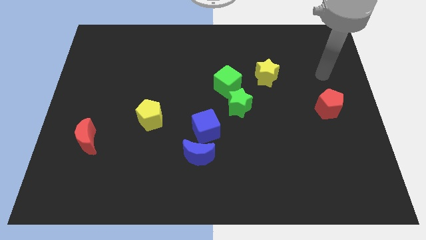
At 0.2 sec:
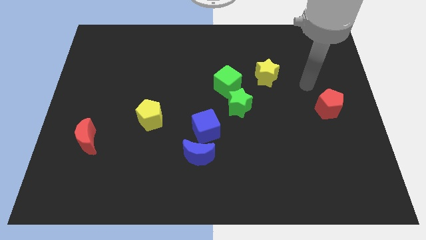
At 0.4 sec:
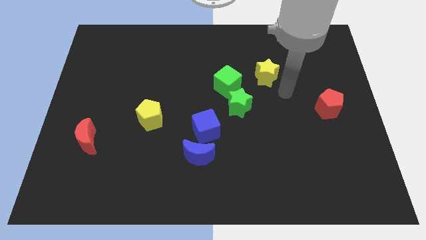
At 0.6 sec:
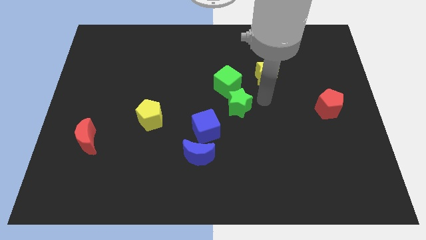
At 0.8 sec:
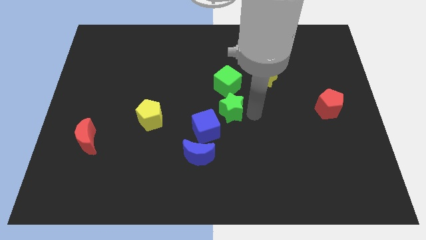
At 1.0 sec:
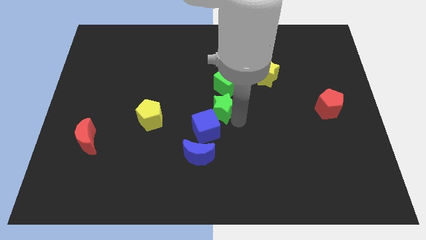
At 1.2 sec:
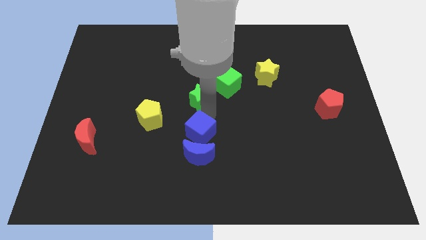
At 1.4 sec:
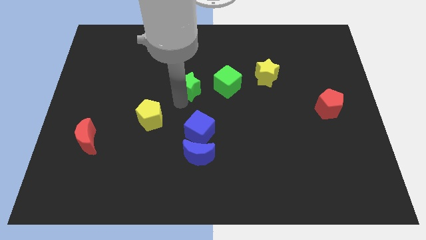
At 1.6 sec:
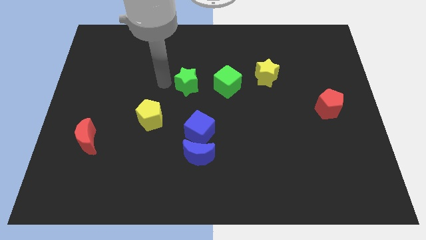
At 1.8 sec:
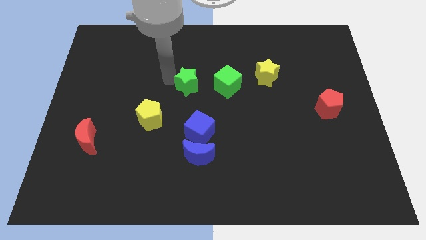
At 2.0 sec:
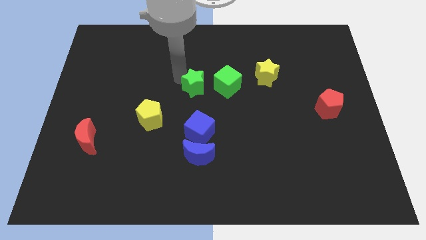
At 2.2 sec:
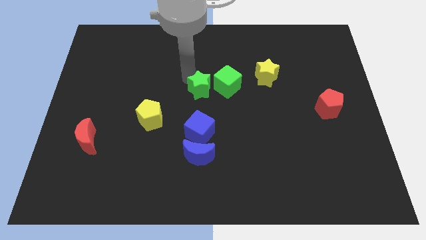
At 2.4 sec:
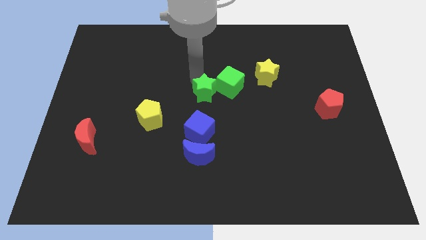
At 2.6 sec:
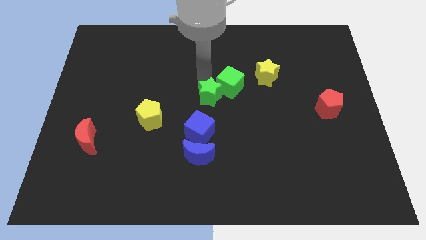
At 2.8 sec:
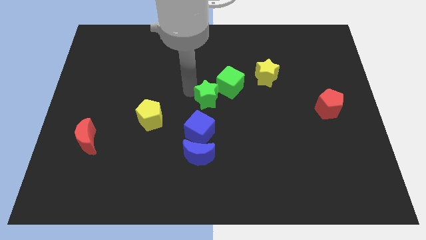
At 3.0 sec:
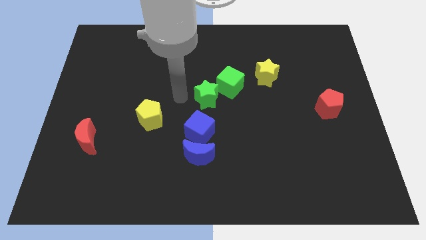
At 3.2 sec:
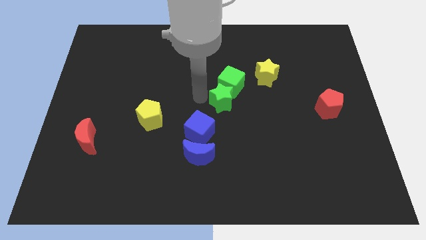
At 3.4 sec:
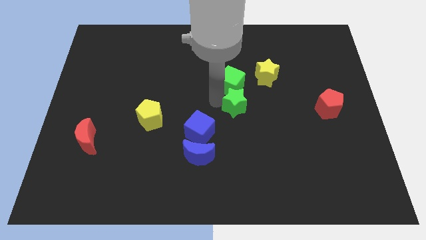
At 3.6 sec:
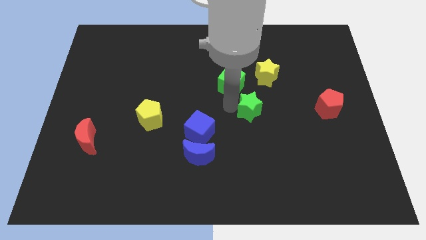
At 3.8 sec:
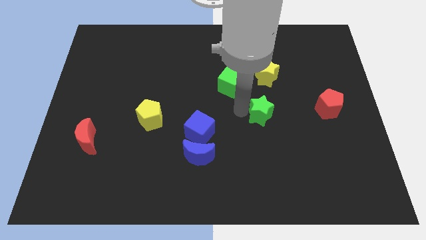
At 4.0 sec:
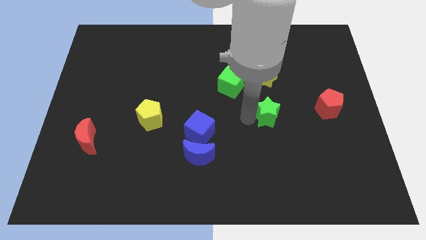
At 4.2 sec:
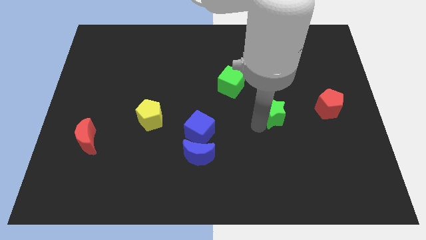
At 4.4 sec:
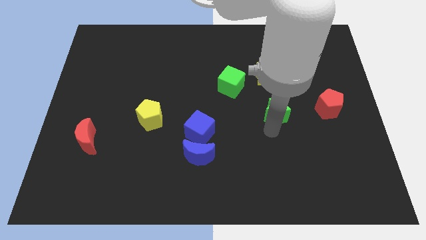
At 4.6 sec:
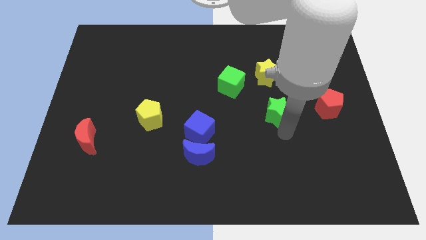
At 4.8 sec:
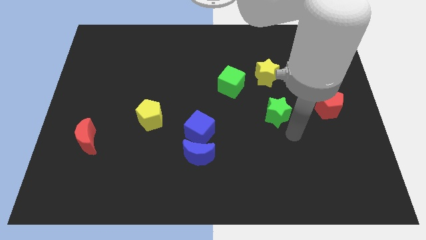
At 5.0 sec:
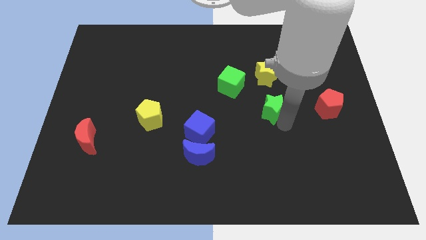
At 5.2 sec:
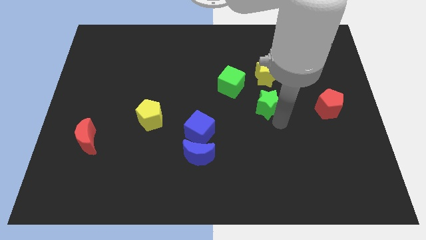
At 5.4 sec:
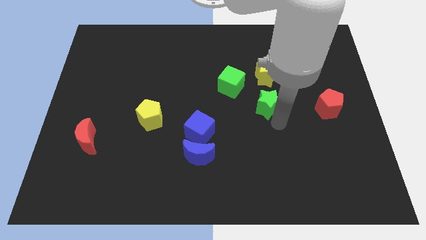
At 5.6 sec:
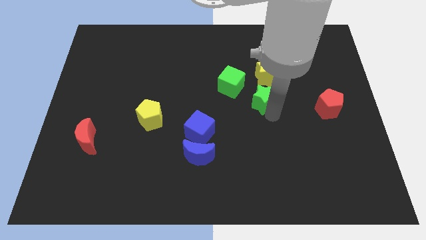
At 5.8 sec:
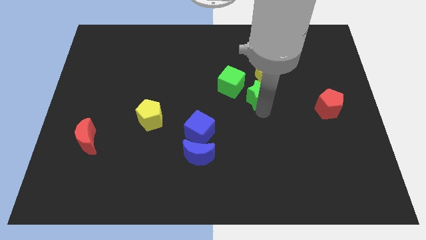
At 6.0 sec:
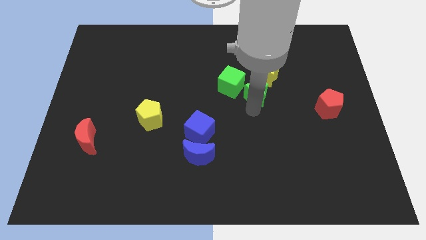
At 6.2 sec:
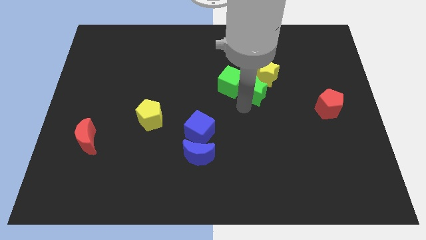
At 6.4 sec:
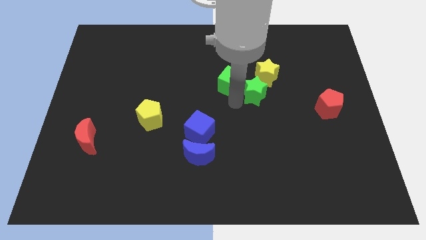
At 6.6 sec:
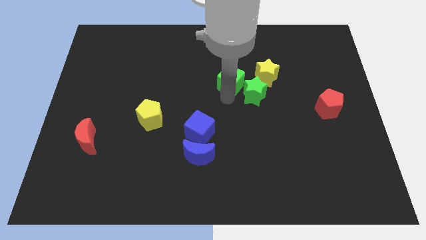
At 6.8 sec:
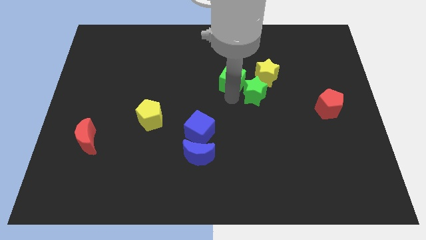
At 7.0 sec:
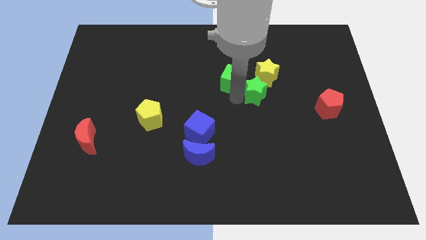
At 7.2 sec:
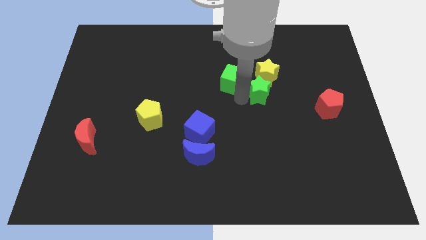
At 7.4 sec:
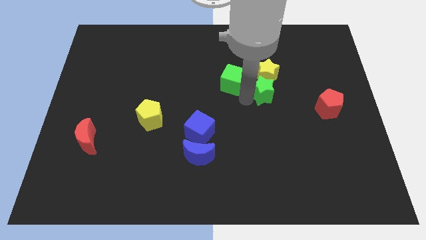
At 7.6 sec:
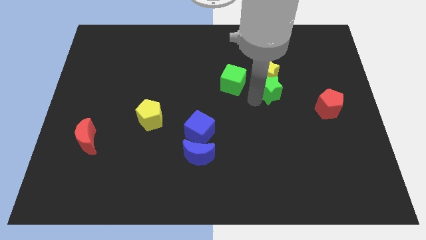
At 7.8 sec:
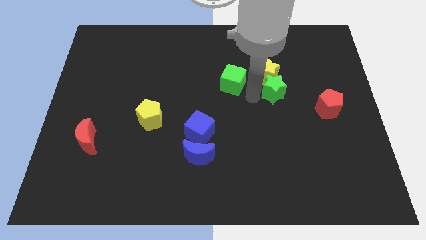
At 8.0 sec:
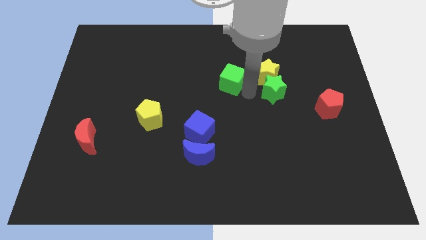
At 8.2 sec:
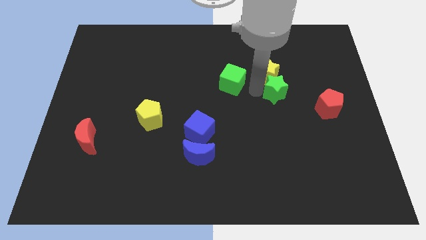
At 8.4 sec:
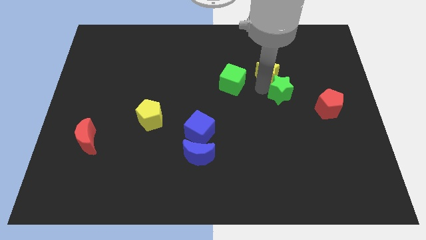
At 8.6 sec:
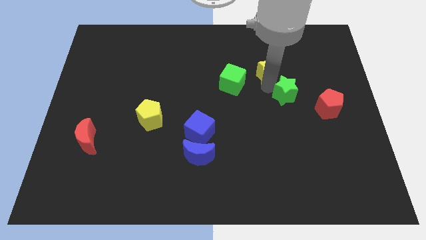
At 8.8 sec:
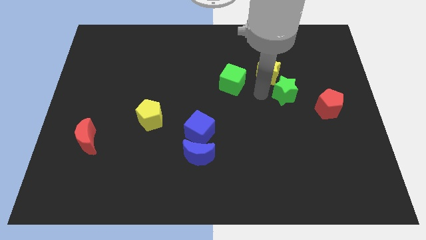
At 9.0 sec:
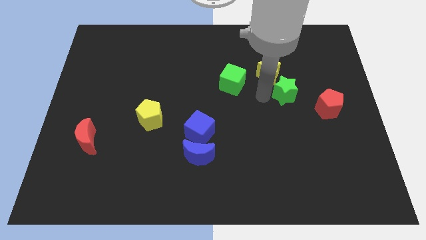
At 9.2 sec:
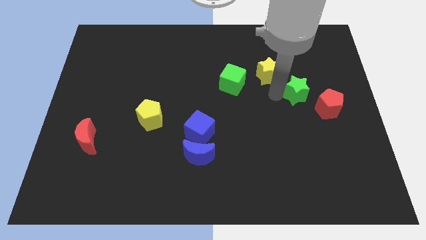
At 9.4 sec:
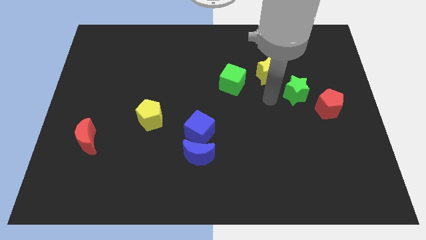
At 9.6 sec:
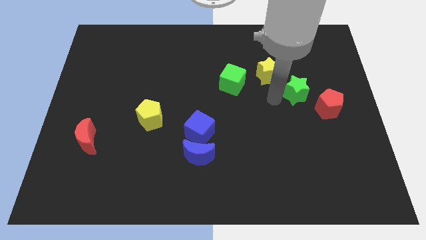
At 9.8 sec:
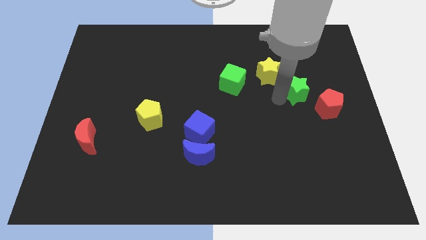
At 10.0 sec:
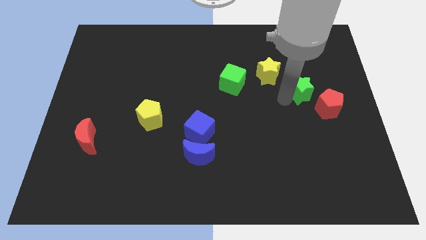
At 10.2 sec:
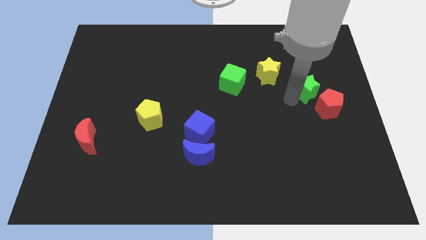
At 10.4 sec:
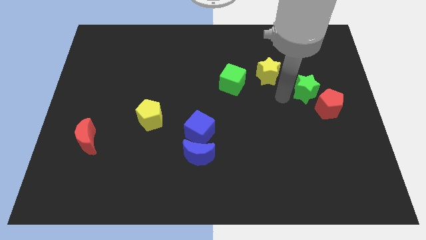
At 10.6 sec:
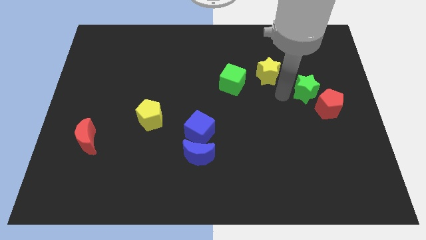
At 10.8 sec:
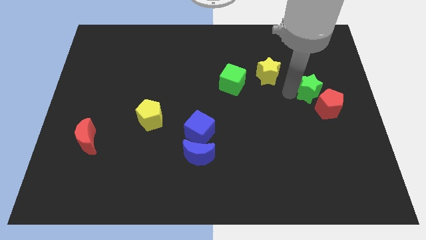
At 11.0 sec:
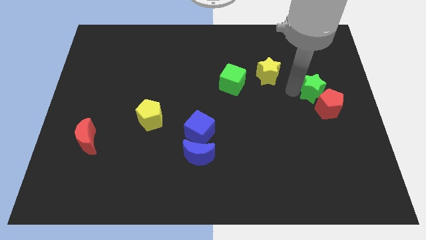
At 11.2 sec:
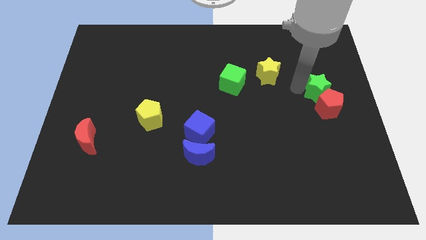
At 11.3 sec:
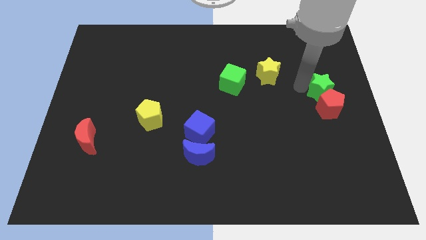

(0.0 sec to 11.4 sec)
push the green star to the right side of the board

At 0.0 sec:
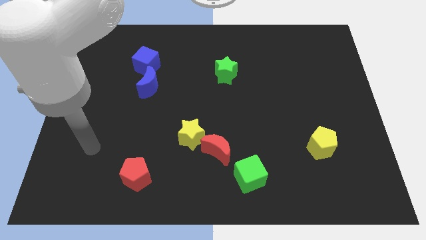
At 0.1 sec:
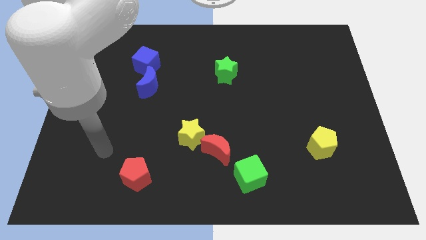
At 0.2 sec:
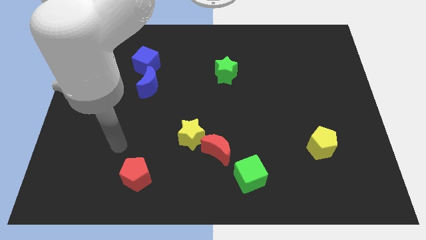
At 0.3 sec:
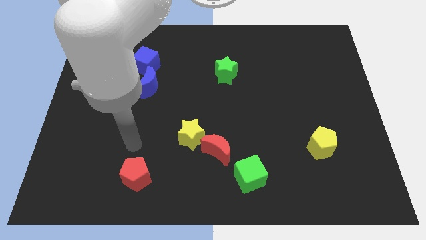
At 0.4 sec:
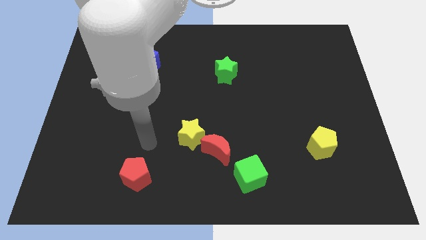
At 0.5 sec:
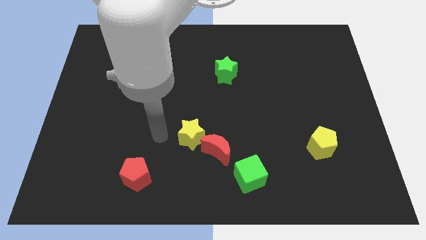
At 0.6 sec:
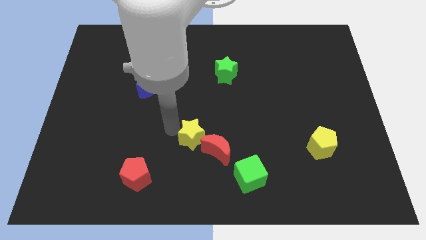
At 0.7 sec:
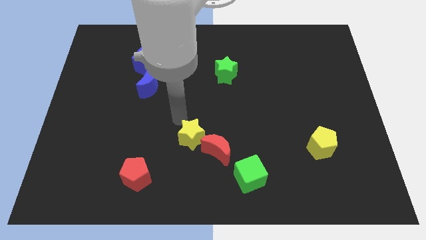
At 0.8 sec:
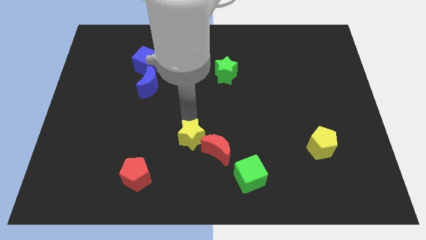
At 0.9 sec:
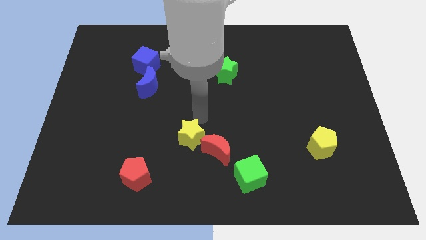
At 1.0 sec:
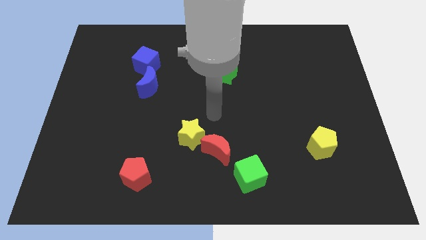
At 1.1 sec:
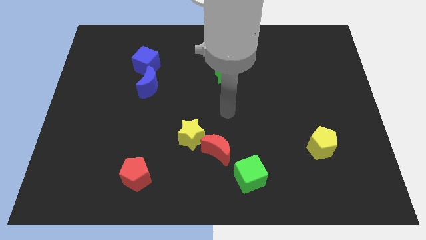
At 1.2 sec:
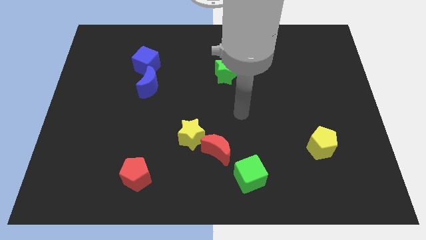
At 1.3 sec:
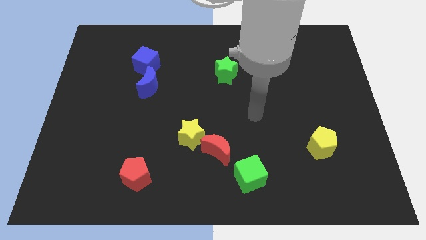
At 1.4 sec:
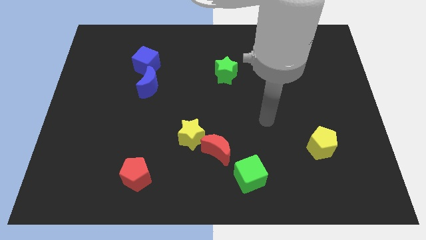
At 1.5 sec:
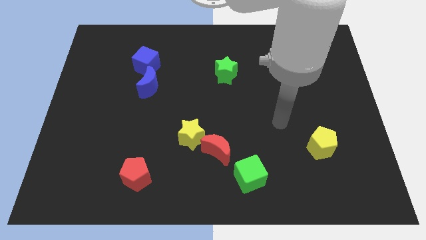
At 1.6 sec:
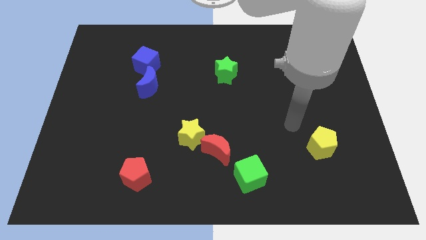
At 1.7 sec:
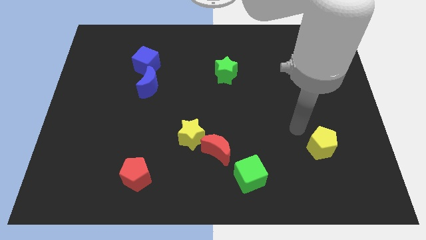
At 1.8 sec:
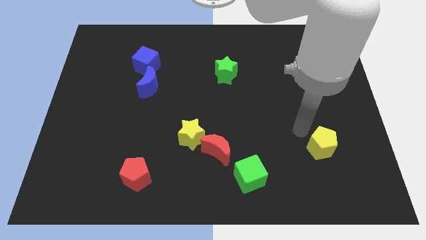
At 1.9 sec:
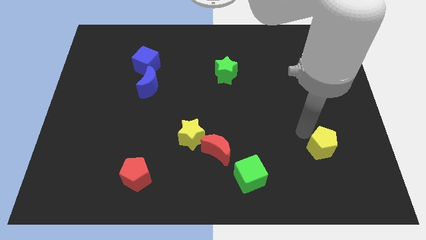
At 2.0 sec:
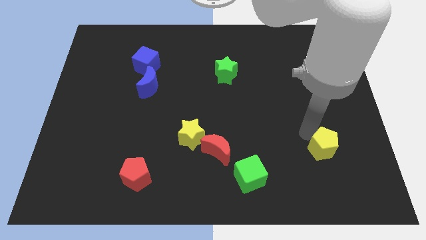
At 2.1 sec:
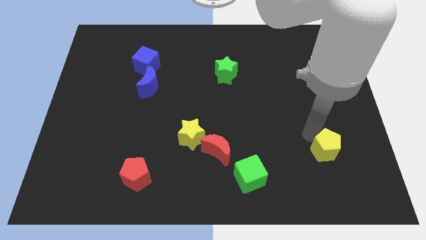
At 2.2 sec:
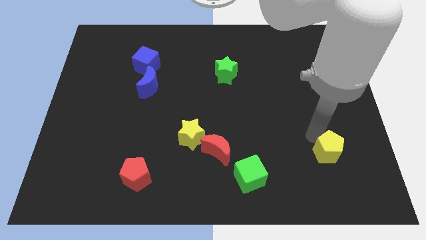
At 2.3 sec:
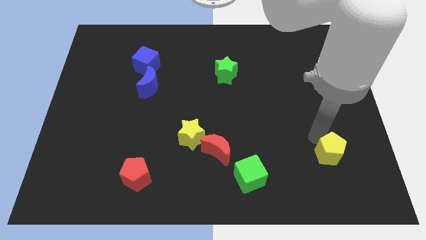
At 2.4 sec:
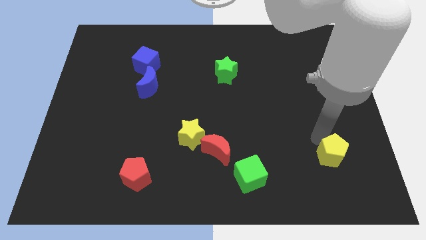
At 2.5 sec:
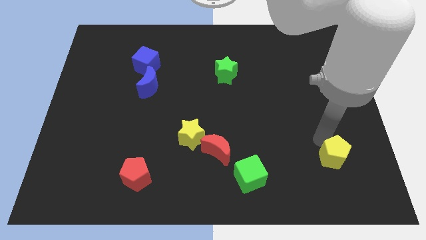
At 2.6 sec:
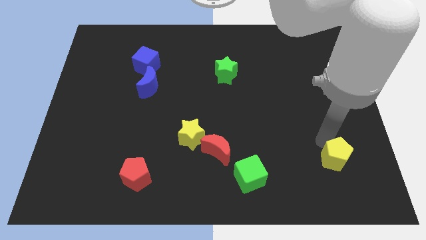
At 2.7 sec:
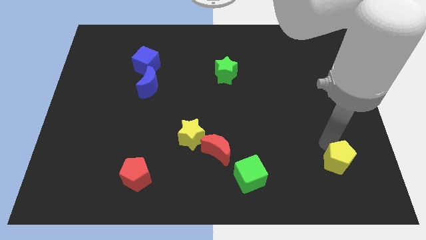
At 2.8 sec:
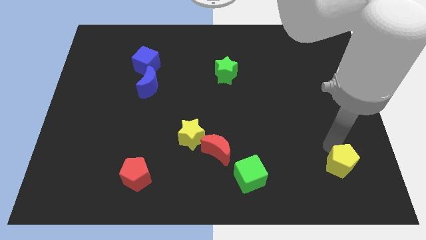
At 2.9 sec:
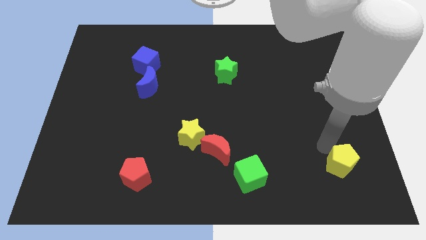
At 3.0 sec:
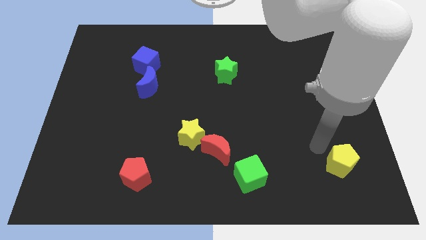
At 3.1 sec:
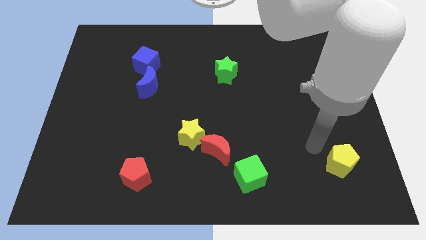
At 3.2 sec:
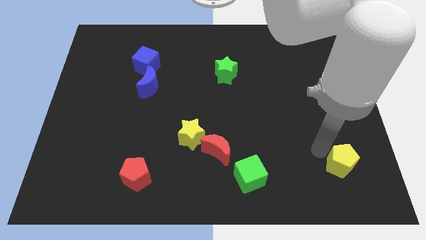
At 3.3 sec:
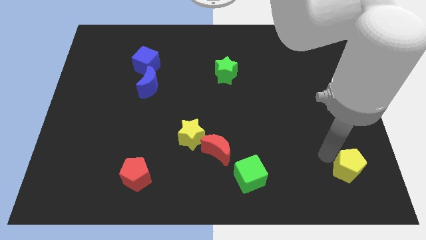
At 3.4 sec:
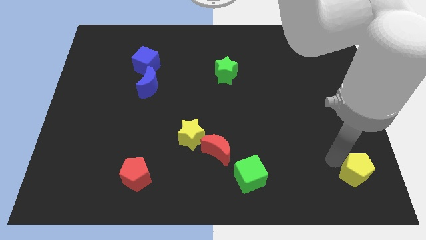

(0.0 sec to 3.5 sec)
move the yellow pentagon to the bottom right corner
